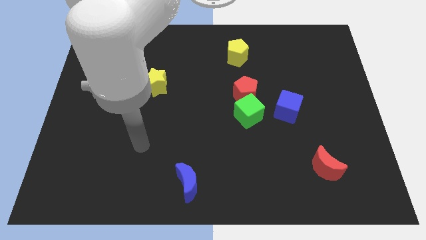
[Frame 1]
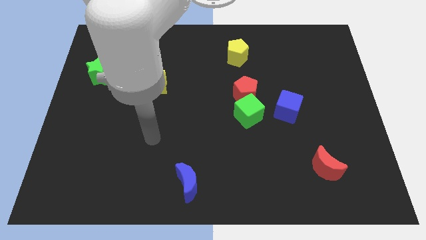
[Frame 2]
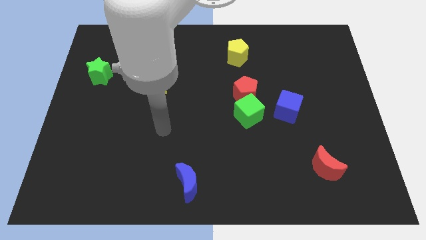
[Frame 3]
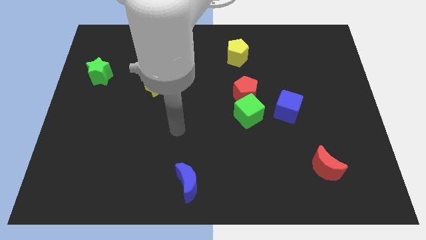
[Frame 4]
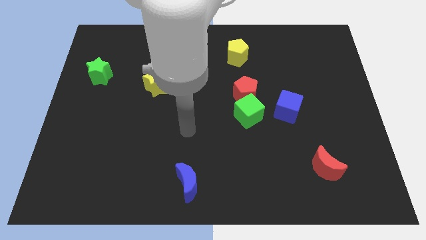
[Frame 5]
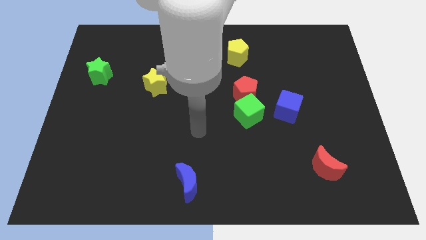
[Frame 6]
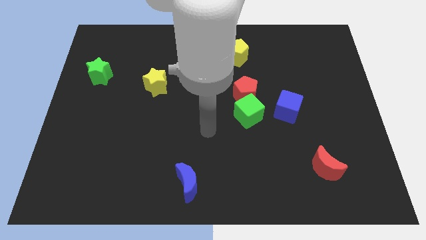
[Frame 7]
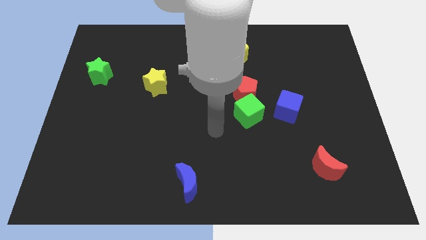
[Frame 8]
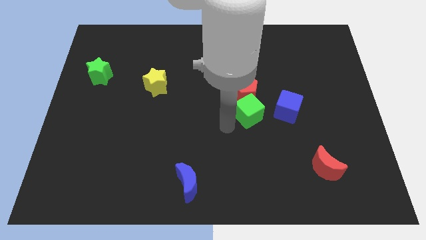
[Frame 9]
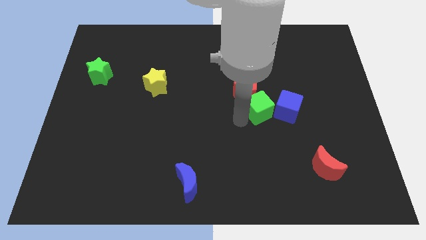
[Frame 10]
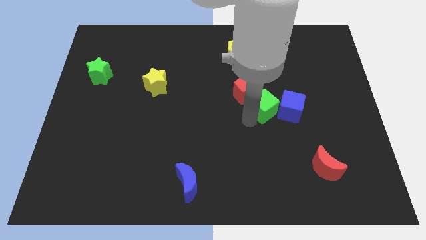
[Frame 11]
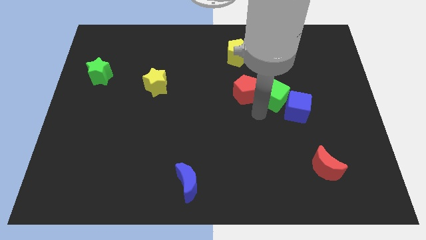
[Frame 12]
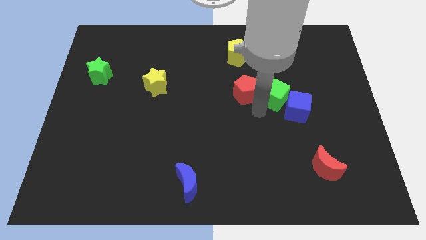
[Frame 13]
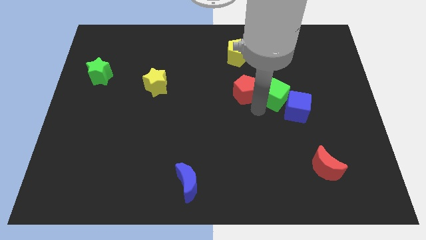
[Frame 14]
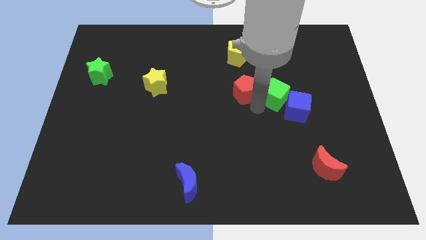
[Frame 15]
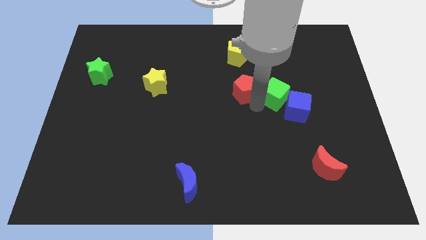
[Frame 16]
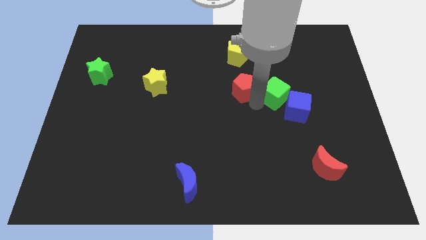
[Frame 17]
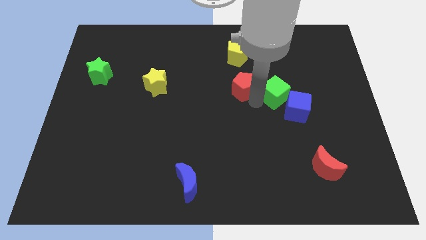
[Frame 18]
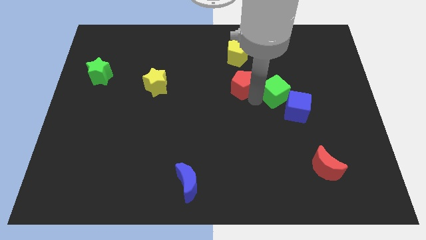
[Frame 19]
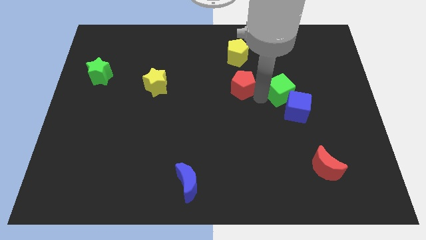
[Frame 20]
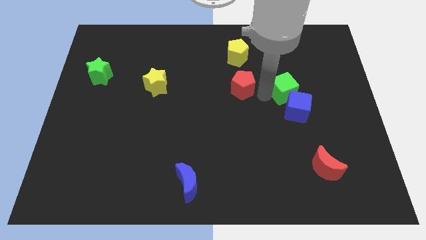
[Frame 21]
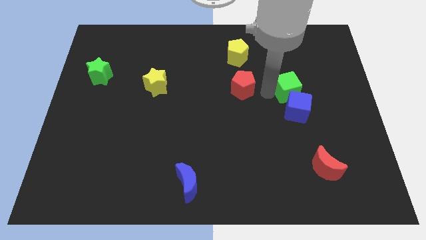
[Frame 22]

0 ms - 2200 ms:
pull the red pentagon apart from the green cube

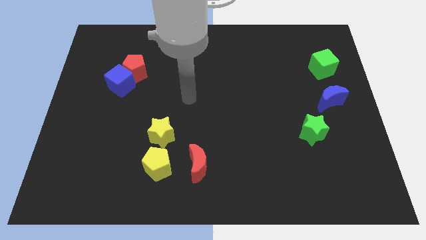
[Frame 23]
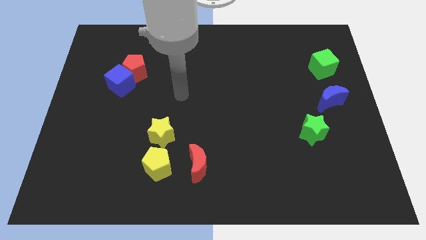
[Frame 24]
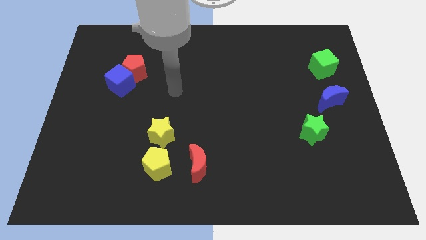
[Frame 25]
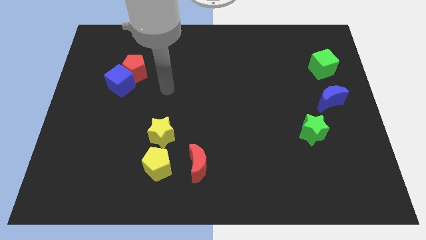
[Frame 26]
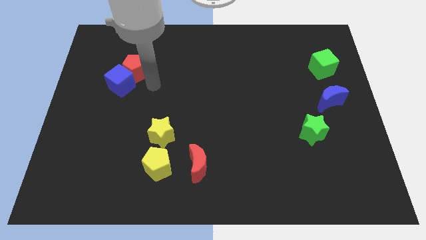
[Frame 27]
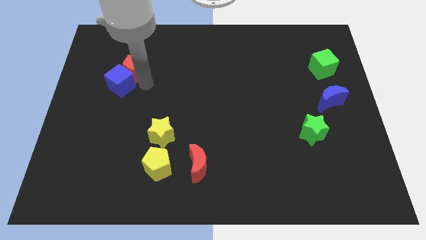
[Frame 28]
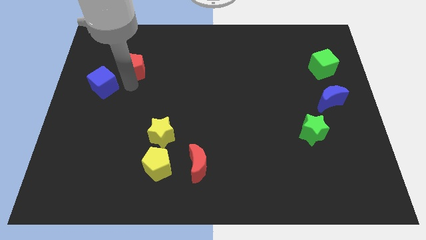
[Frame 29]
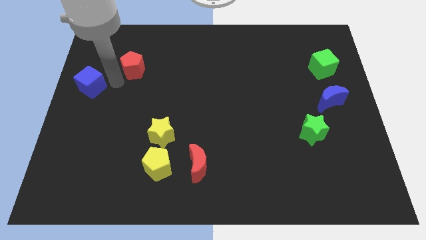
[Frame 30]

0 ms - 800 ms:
pull the red pentagon apart from the blue cube

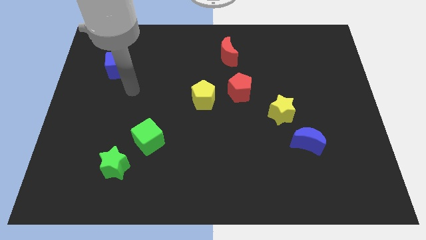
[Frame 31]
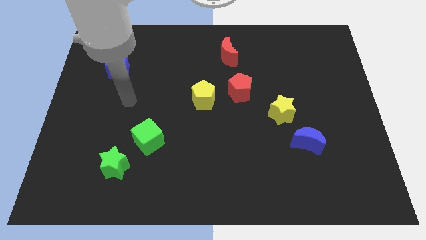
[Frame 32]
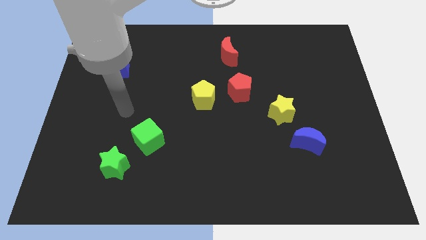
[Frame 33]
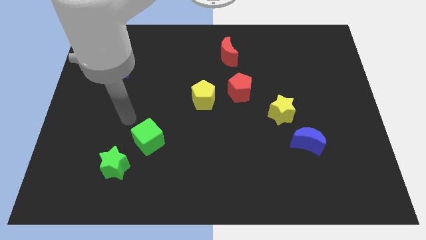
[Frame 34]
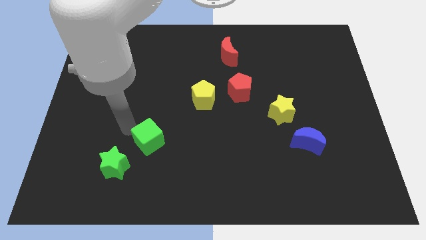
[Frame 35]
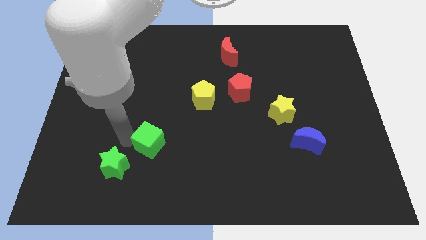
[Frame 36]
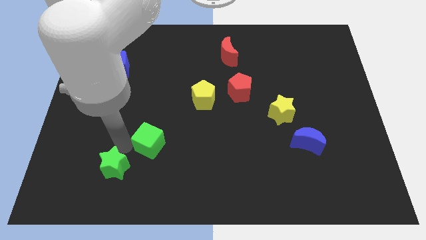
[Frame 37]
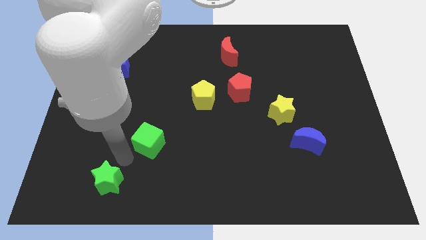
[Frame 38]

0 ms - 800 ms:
separate the green cube from the green star

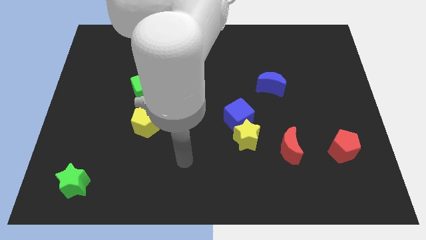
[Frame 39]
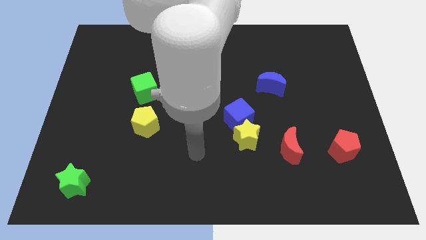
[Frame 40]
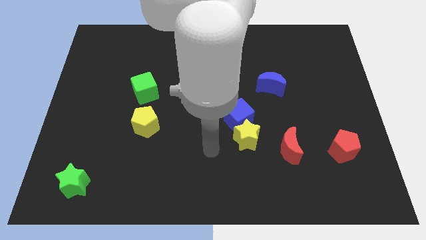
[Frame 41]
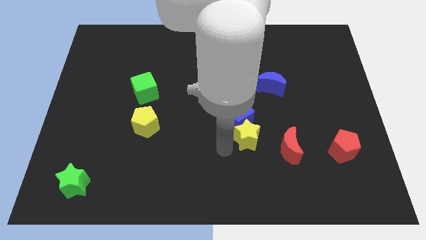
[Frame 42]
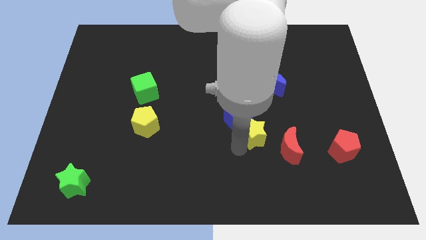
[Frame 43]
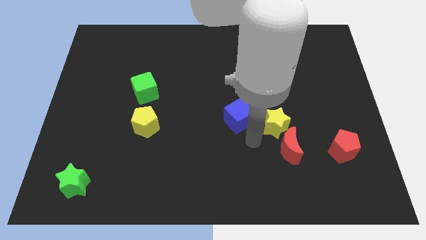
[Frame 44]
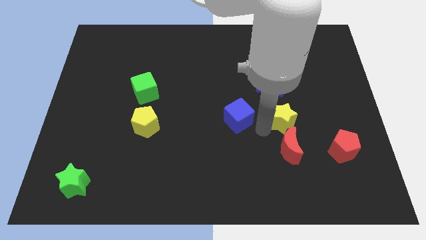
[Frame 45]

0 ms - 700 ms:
pull the blue cube apart from the yellow star

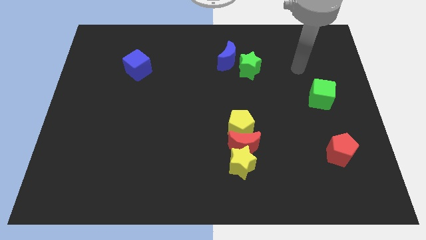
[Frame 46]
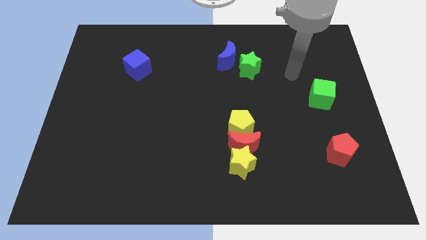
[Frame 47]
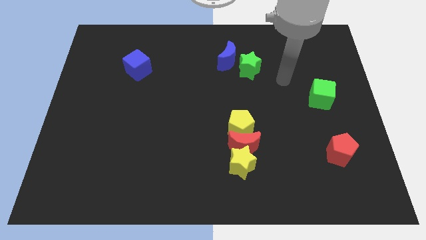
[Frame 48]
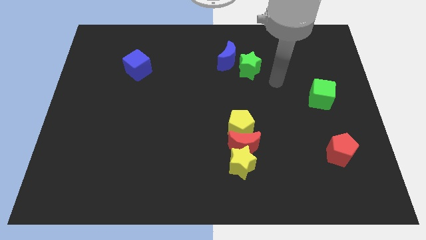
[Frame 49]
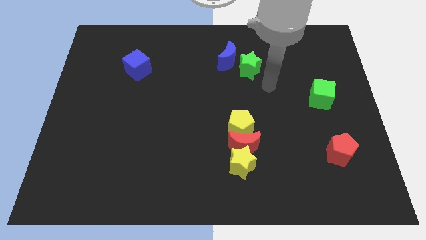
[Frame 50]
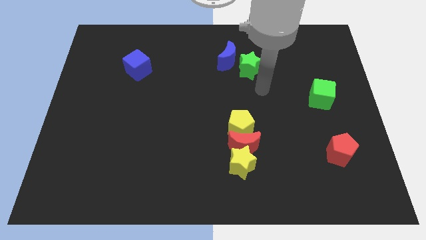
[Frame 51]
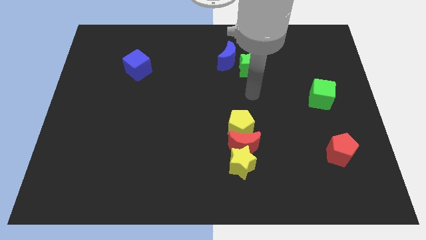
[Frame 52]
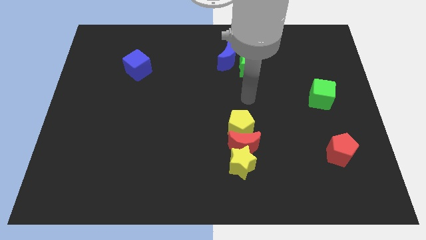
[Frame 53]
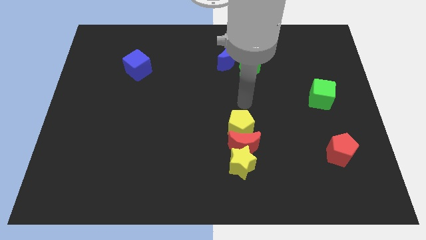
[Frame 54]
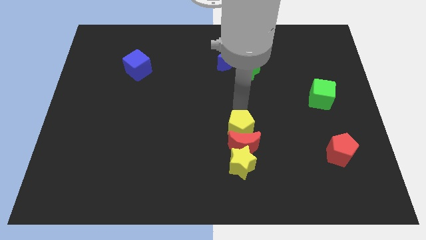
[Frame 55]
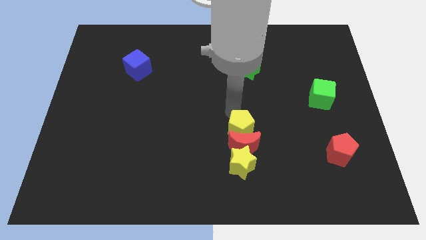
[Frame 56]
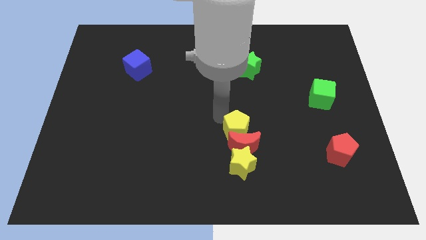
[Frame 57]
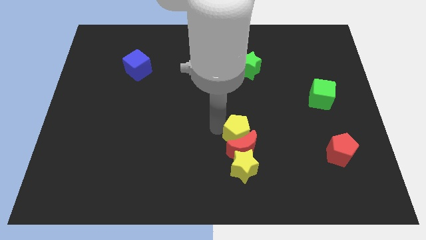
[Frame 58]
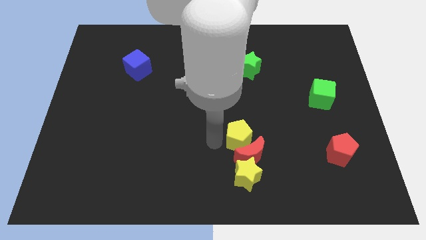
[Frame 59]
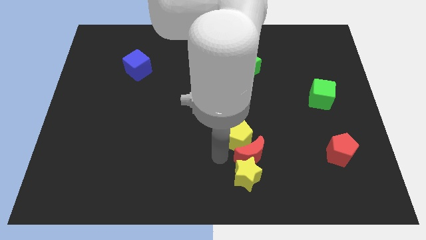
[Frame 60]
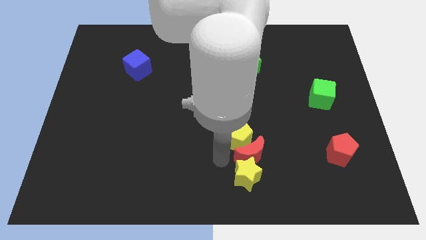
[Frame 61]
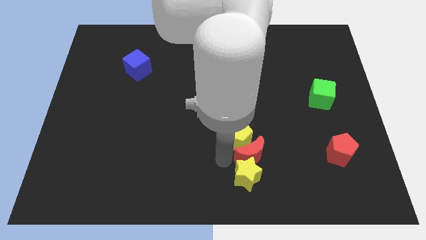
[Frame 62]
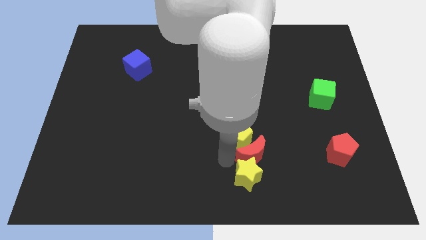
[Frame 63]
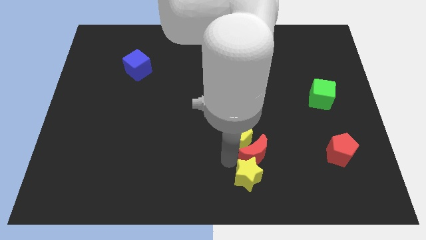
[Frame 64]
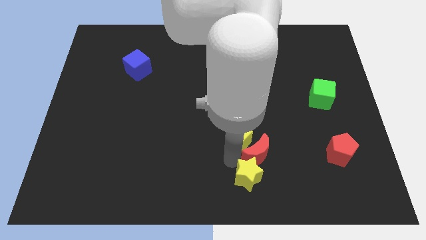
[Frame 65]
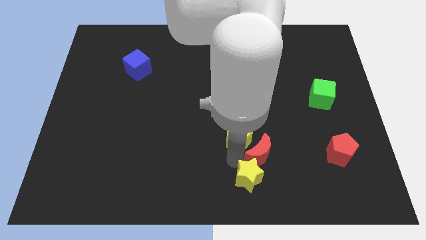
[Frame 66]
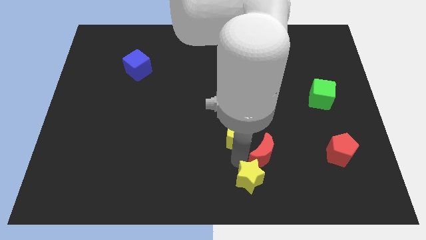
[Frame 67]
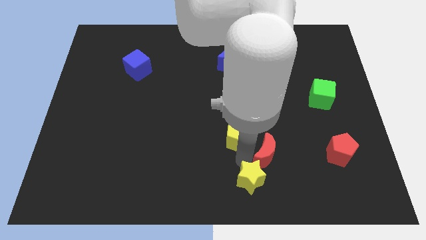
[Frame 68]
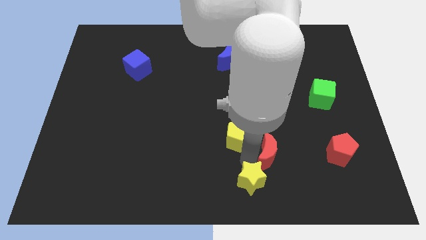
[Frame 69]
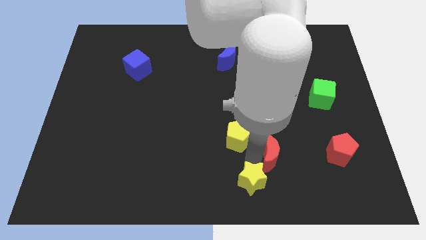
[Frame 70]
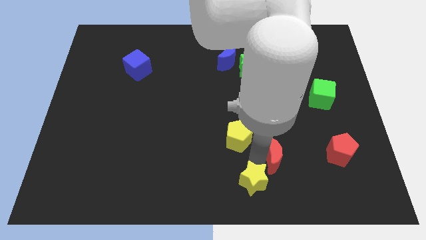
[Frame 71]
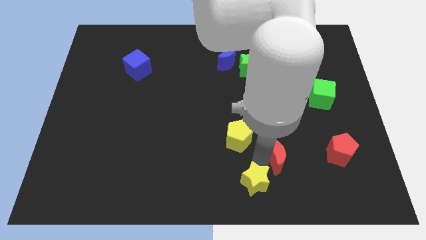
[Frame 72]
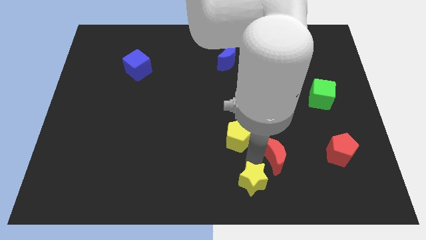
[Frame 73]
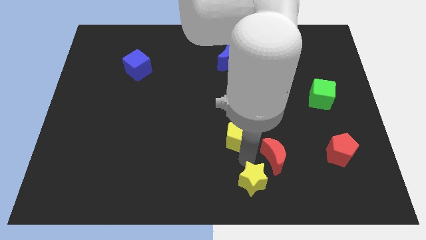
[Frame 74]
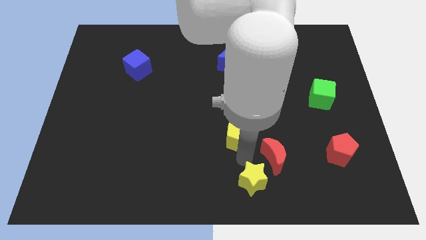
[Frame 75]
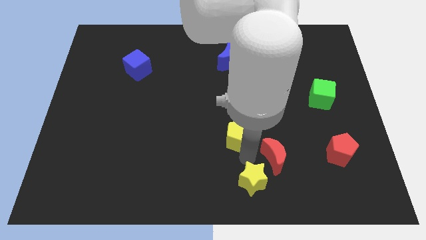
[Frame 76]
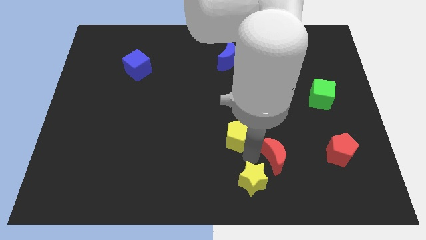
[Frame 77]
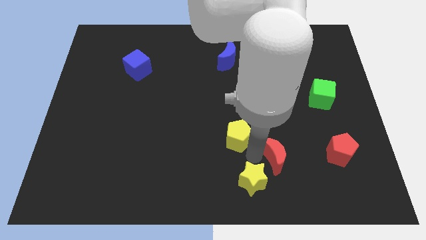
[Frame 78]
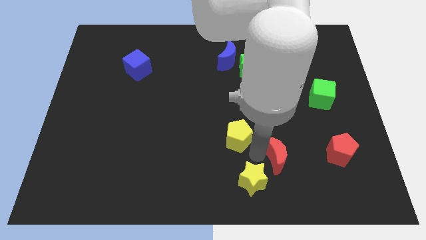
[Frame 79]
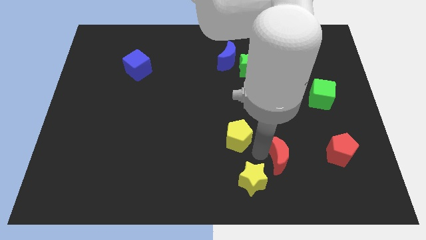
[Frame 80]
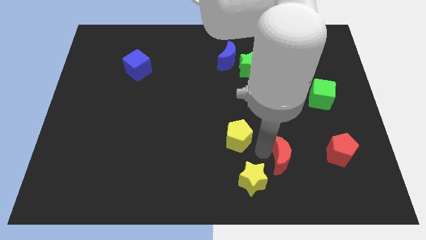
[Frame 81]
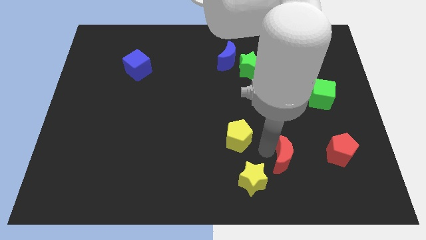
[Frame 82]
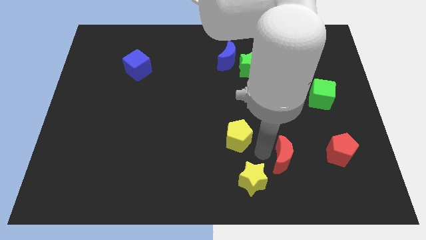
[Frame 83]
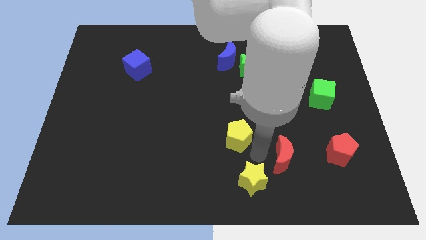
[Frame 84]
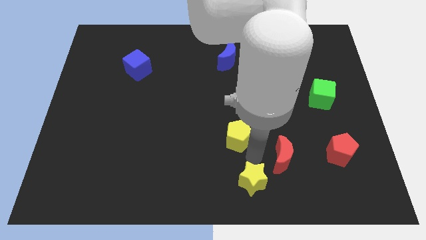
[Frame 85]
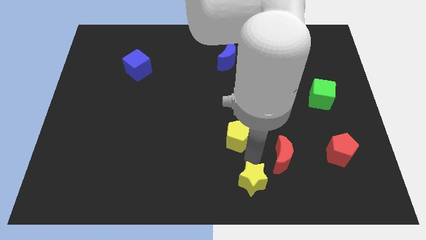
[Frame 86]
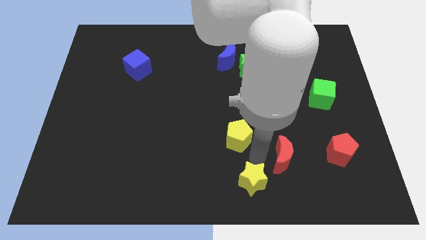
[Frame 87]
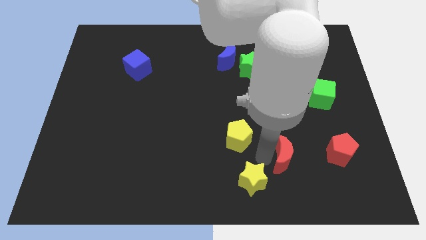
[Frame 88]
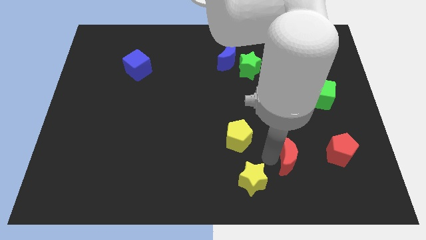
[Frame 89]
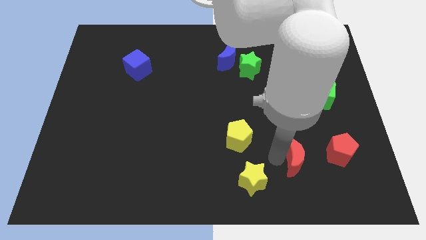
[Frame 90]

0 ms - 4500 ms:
move the red moon away from the yellow star and yellow pentagon

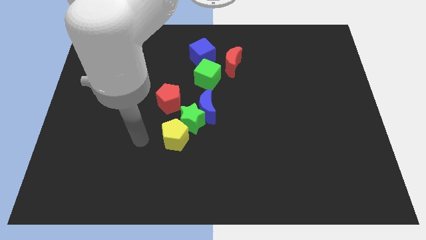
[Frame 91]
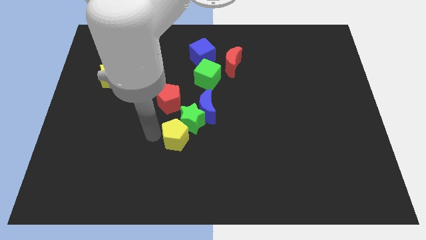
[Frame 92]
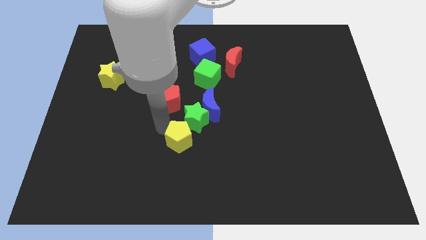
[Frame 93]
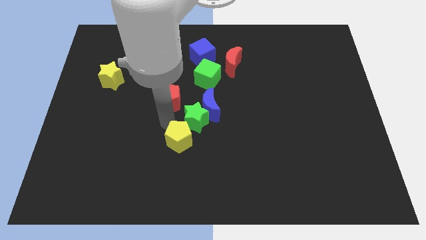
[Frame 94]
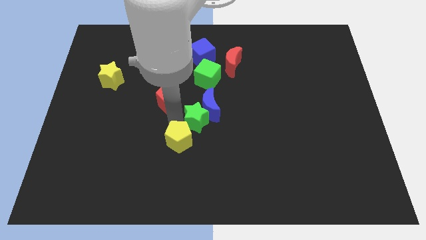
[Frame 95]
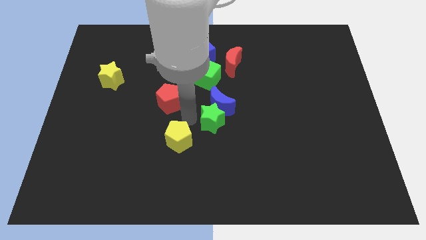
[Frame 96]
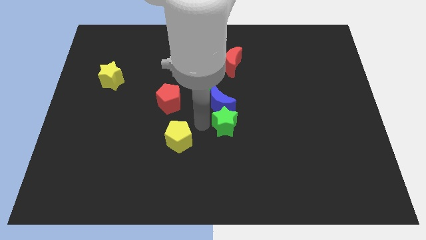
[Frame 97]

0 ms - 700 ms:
pull the yellow pentagon apart from the green star
